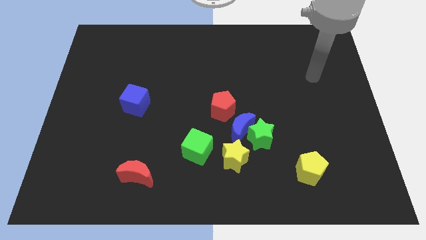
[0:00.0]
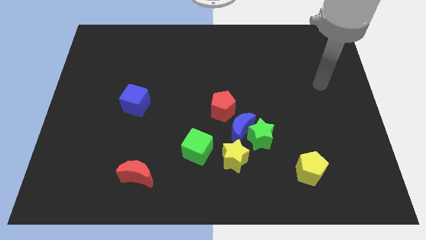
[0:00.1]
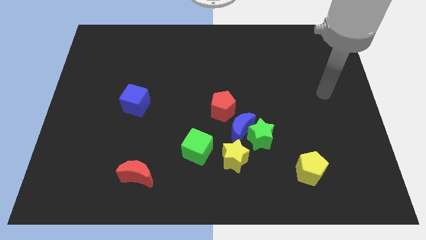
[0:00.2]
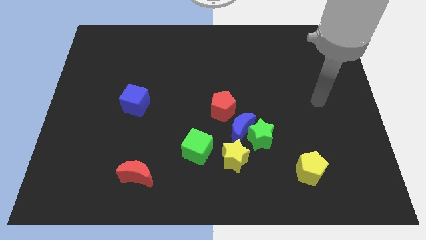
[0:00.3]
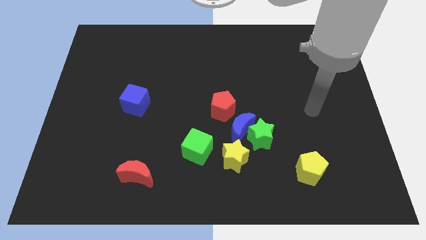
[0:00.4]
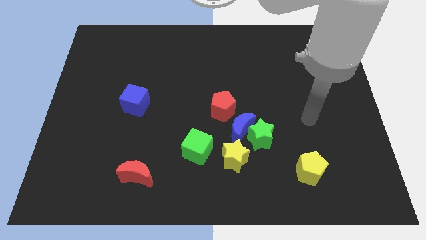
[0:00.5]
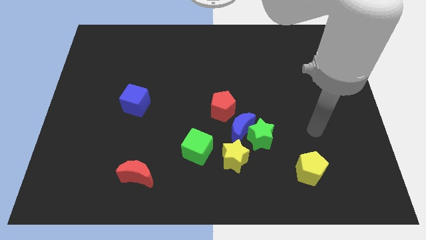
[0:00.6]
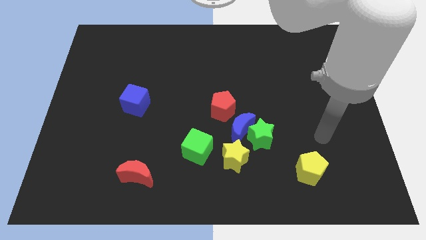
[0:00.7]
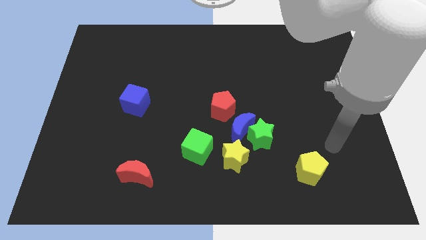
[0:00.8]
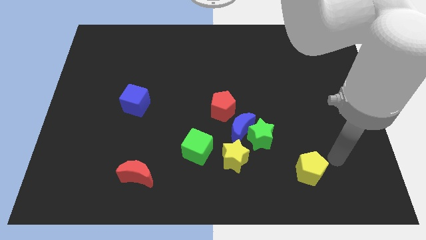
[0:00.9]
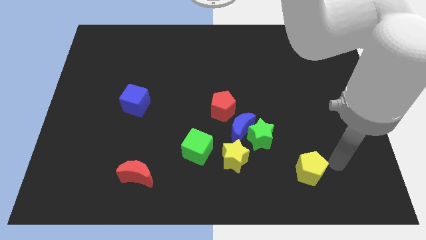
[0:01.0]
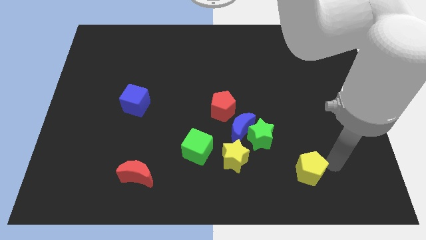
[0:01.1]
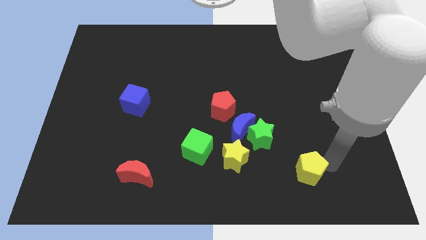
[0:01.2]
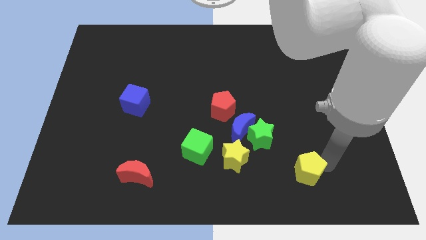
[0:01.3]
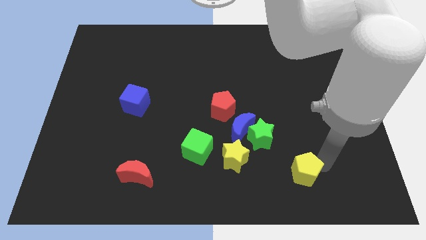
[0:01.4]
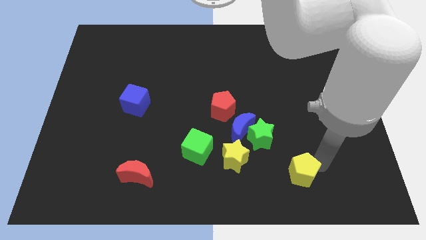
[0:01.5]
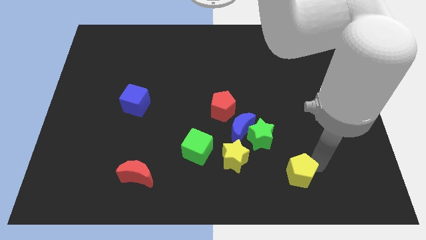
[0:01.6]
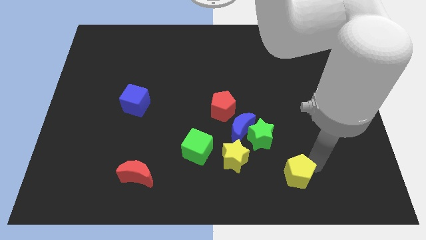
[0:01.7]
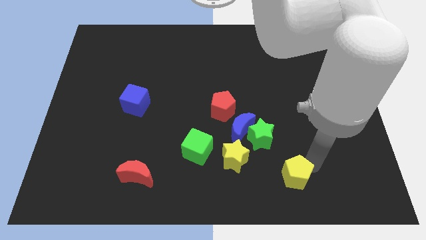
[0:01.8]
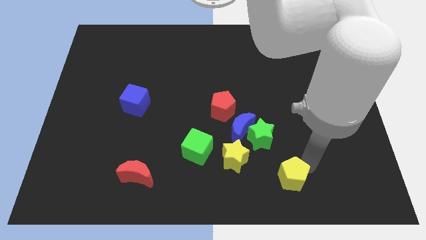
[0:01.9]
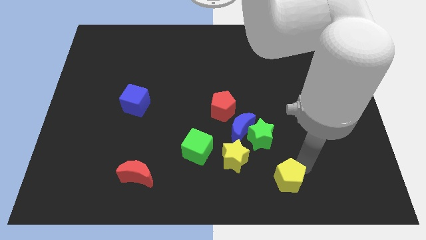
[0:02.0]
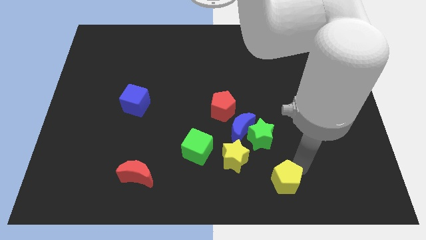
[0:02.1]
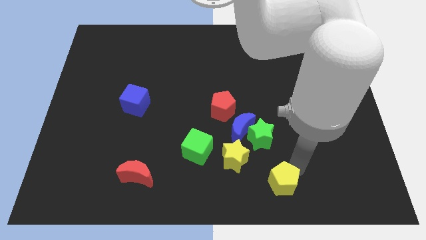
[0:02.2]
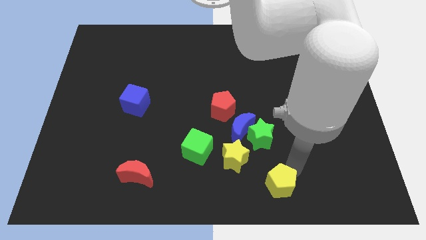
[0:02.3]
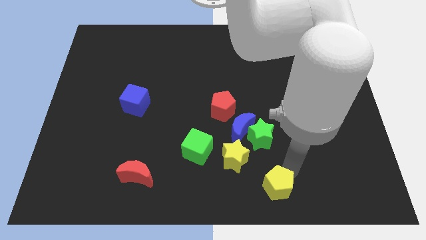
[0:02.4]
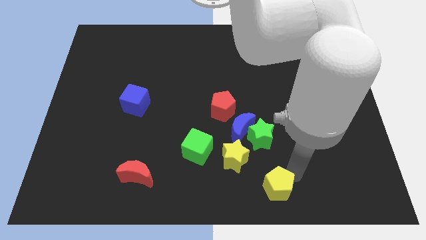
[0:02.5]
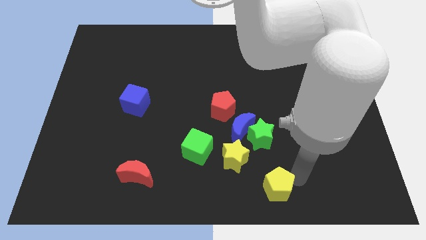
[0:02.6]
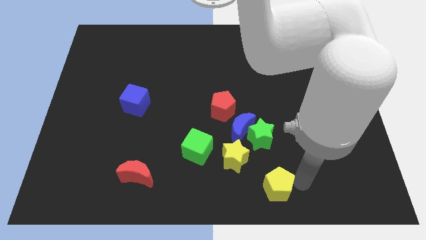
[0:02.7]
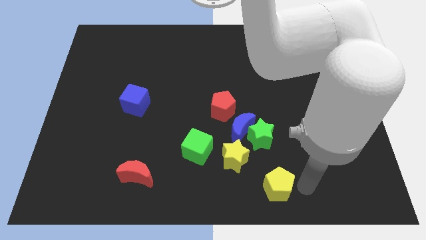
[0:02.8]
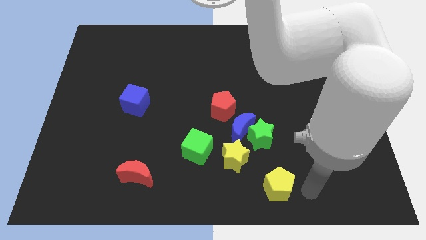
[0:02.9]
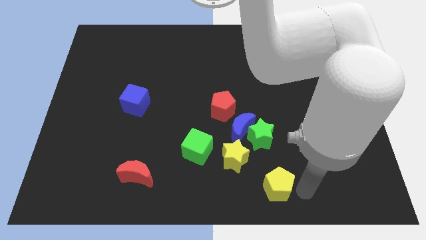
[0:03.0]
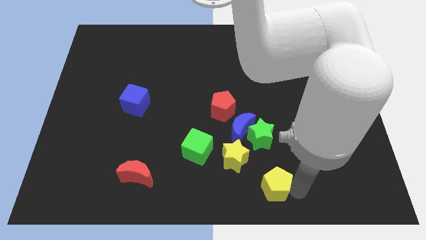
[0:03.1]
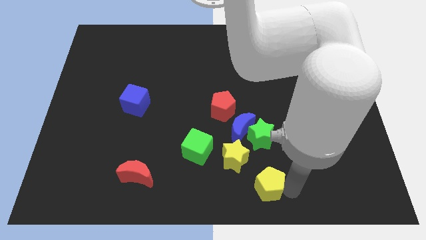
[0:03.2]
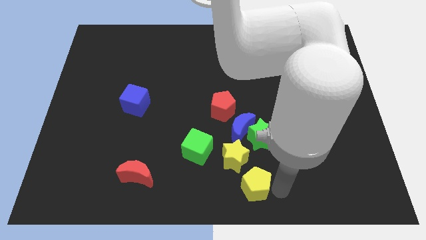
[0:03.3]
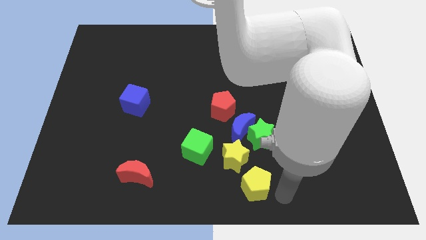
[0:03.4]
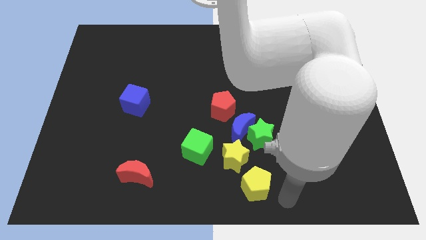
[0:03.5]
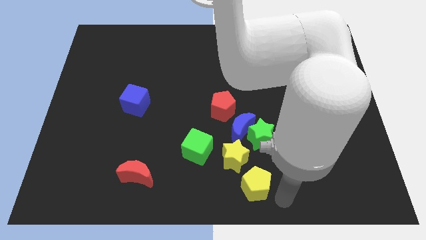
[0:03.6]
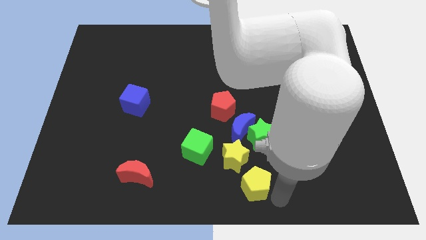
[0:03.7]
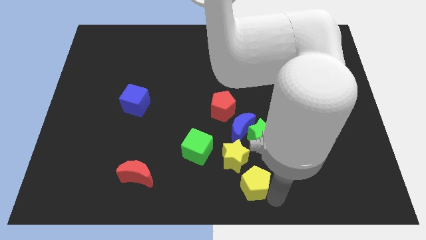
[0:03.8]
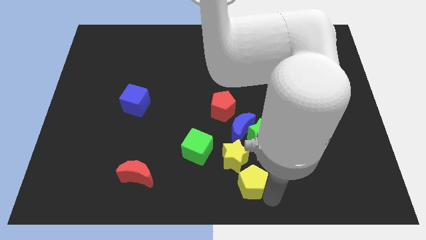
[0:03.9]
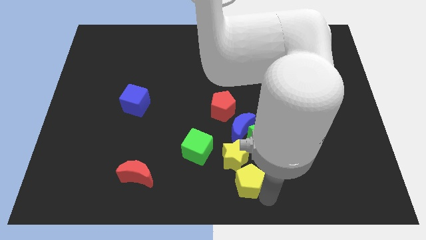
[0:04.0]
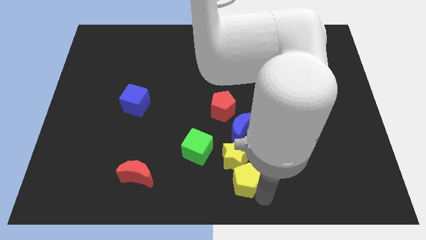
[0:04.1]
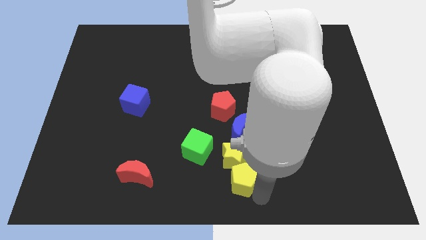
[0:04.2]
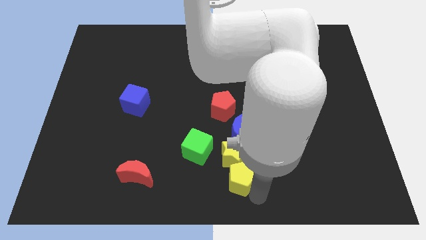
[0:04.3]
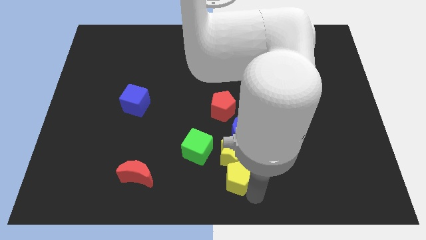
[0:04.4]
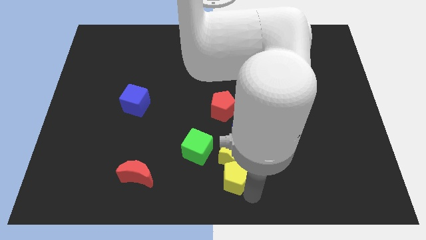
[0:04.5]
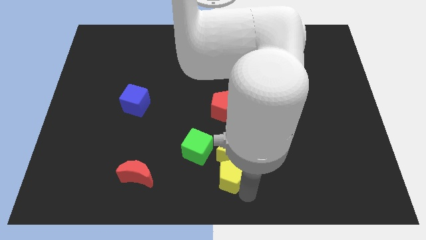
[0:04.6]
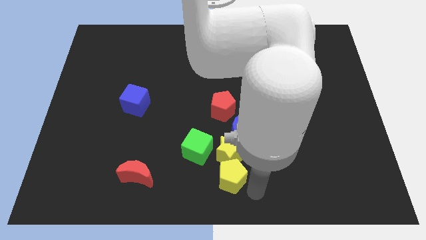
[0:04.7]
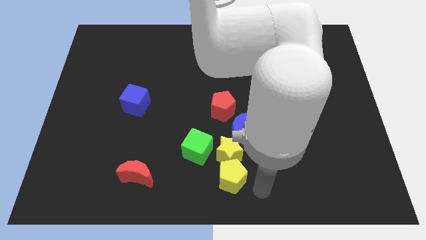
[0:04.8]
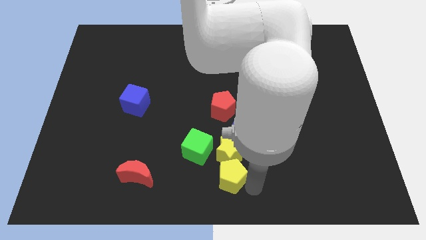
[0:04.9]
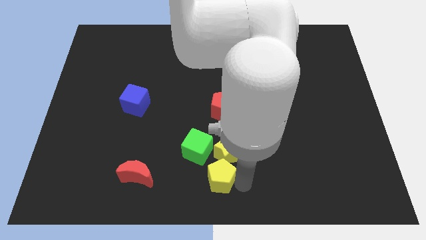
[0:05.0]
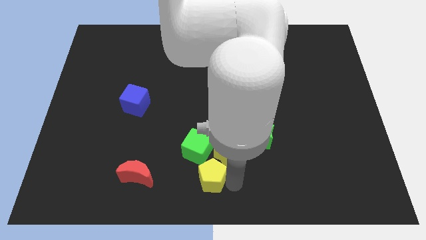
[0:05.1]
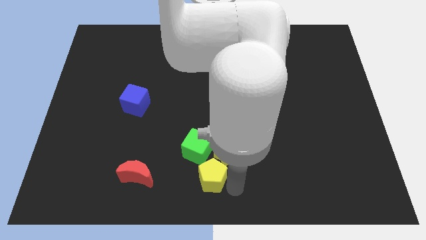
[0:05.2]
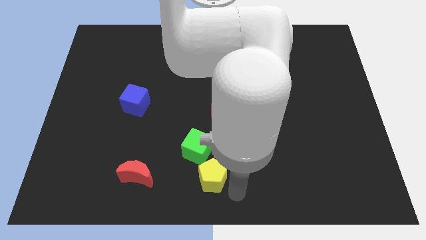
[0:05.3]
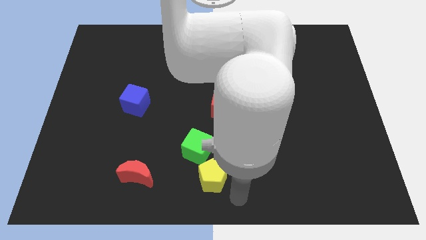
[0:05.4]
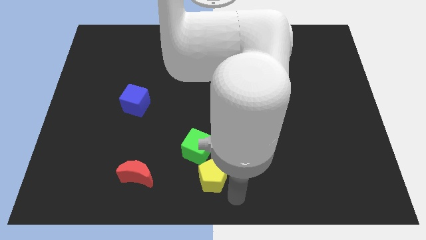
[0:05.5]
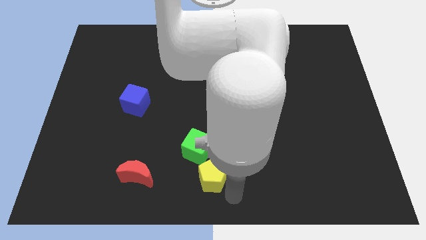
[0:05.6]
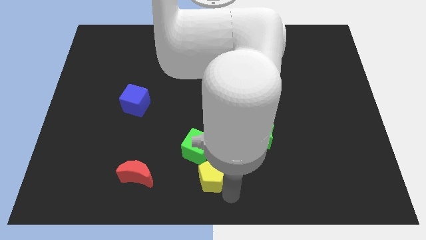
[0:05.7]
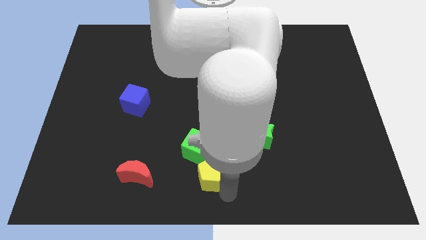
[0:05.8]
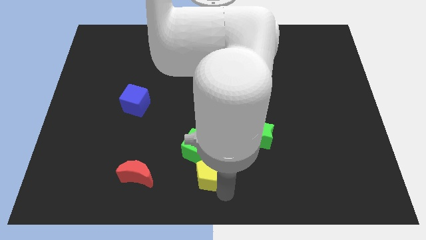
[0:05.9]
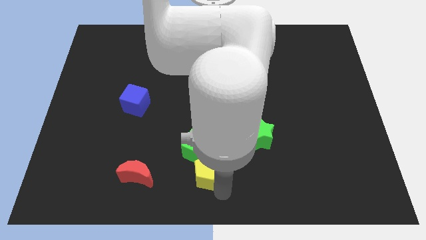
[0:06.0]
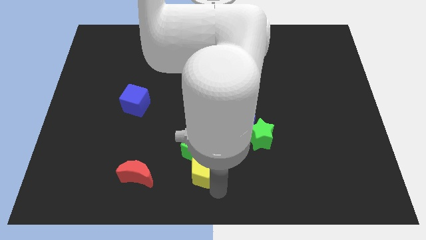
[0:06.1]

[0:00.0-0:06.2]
push the yellow pentagon to the left side of the yellow star

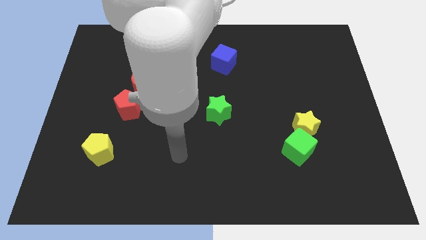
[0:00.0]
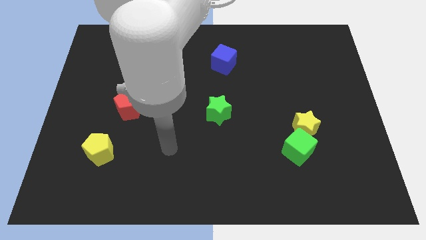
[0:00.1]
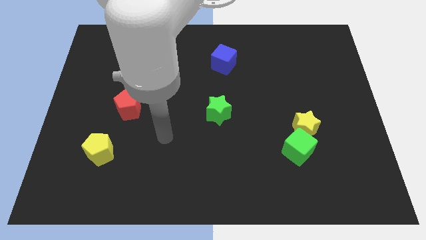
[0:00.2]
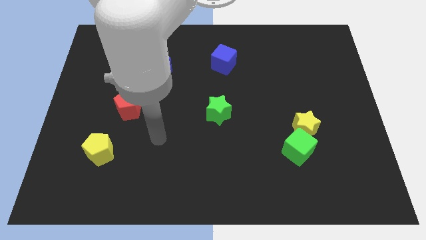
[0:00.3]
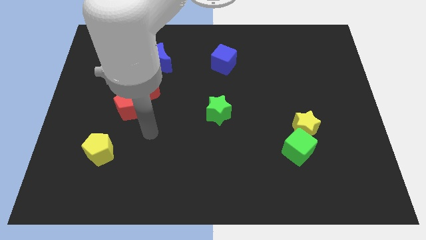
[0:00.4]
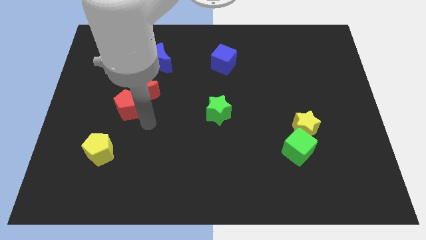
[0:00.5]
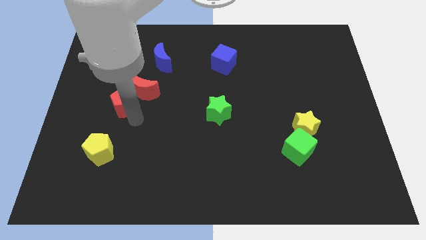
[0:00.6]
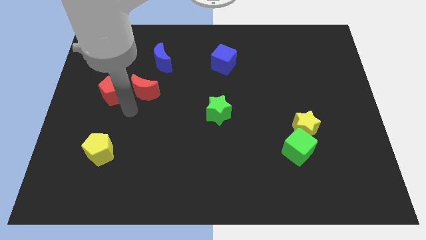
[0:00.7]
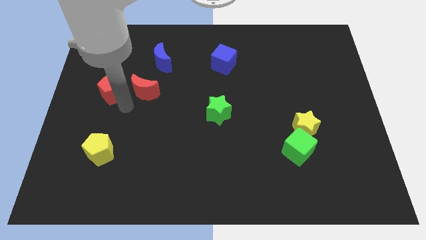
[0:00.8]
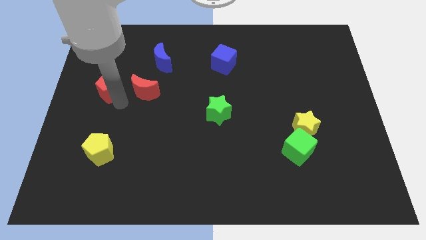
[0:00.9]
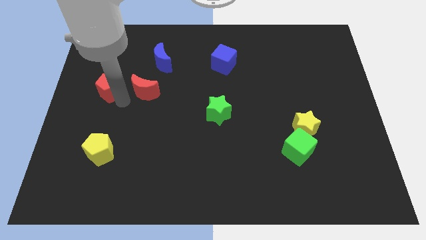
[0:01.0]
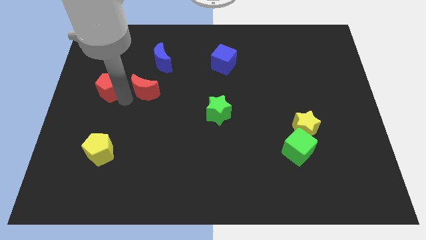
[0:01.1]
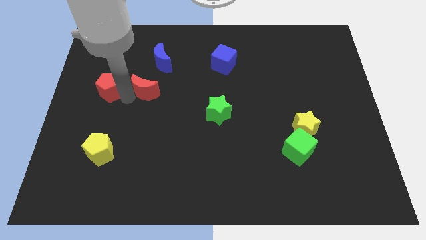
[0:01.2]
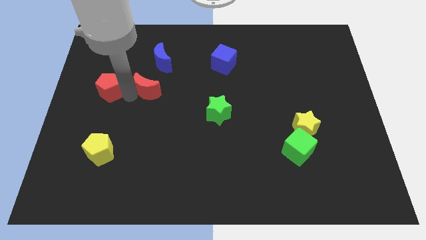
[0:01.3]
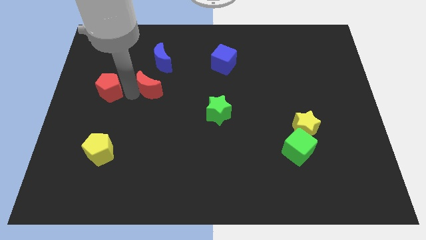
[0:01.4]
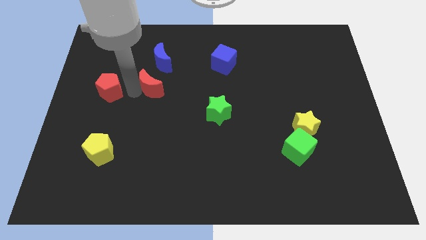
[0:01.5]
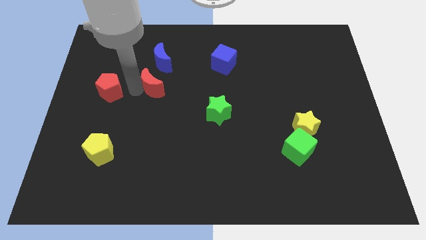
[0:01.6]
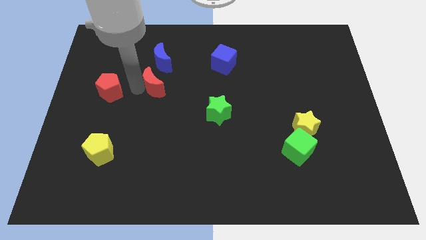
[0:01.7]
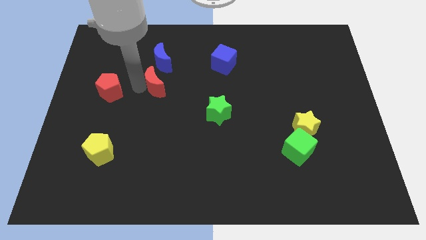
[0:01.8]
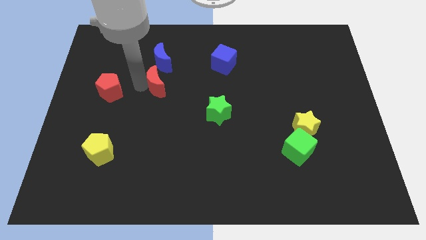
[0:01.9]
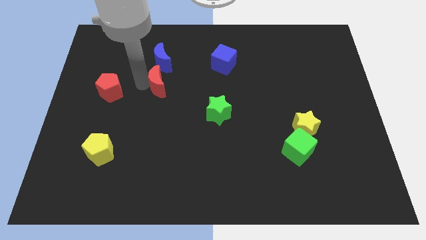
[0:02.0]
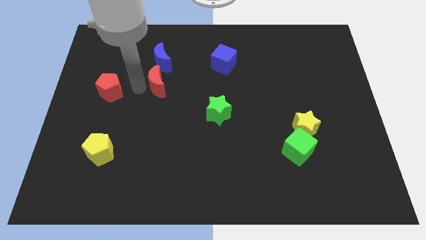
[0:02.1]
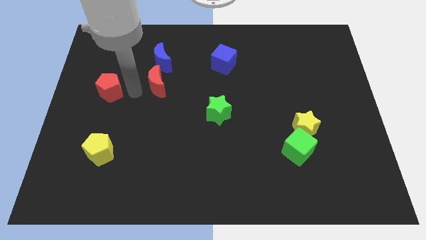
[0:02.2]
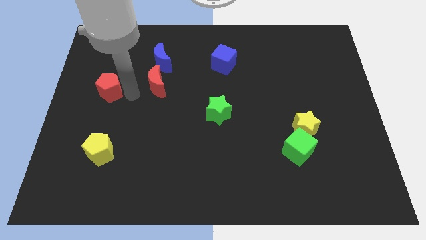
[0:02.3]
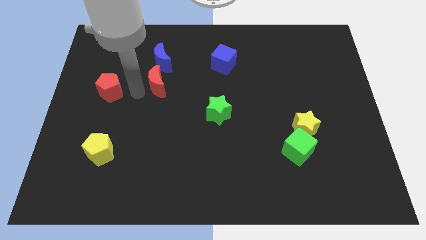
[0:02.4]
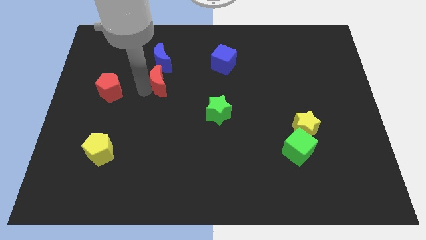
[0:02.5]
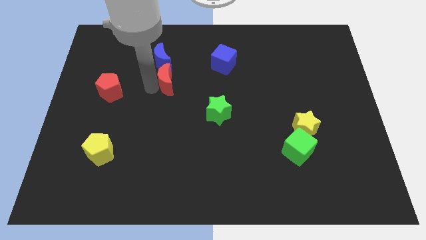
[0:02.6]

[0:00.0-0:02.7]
push the red moon to the bottom right side of the blue moon
